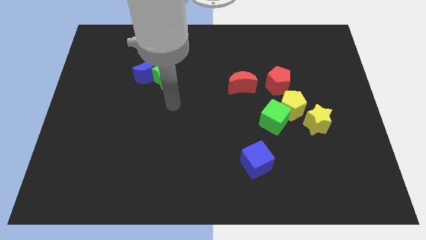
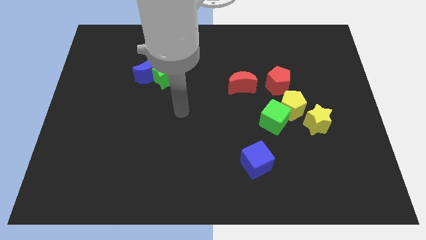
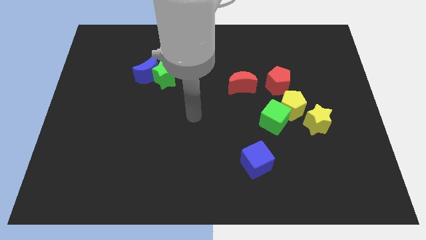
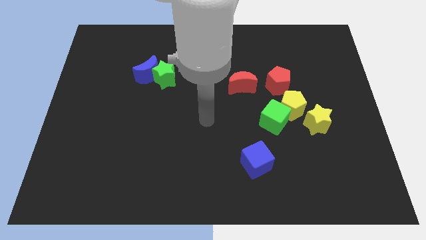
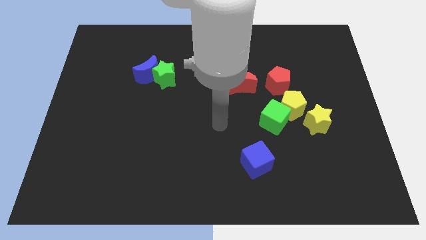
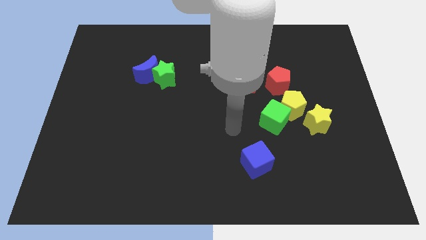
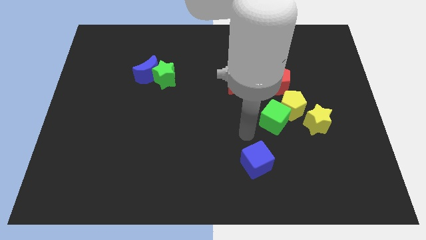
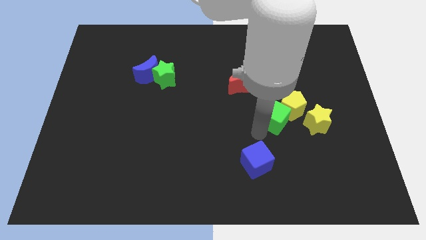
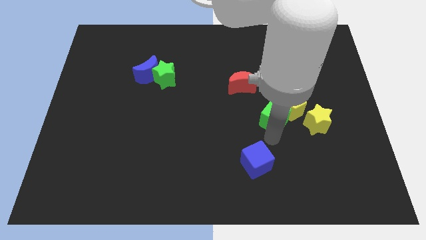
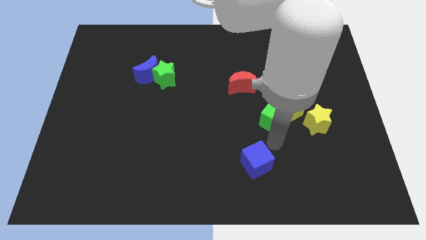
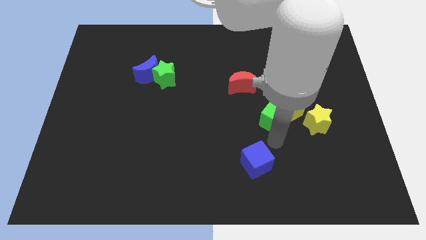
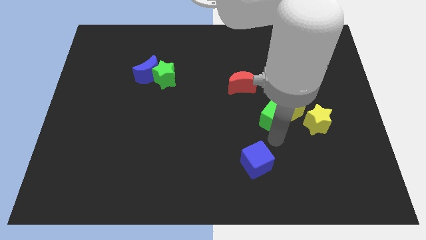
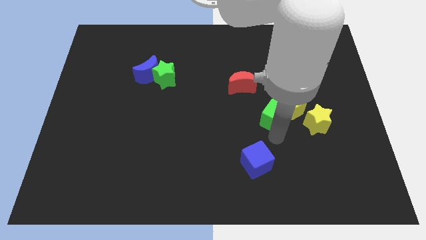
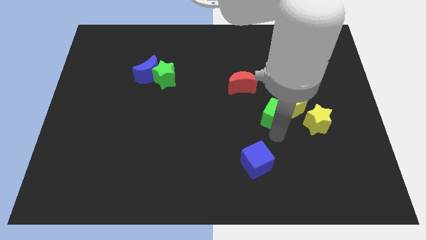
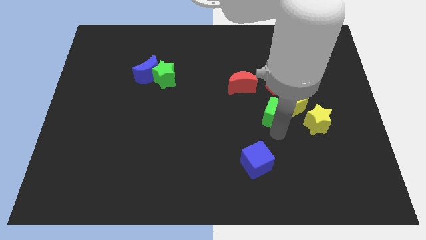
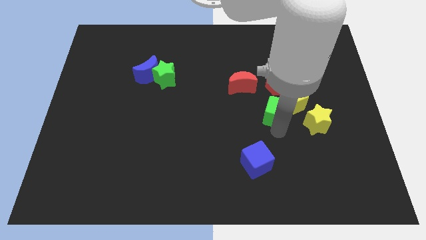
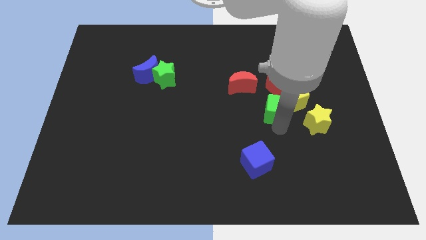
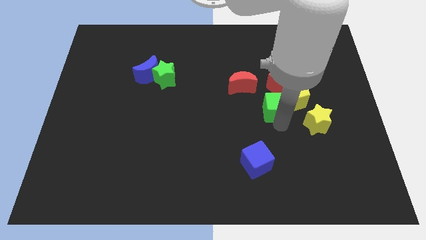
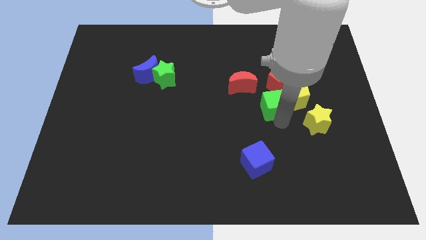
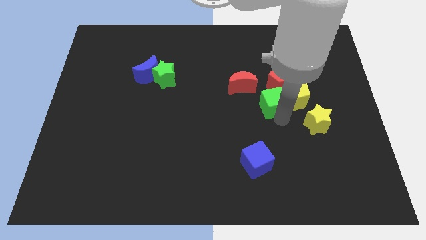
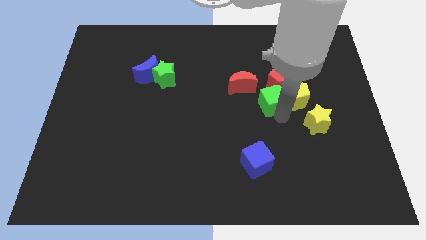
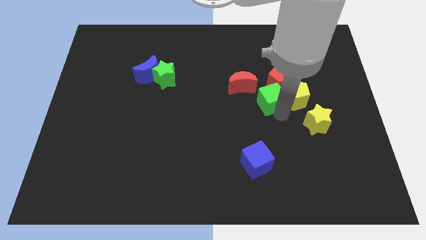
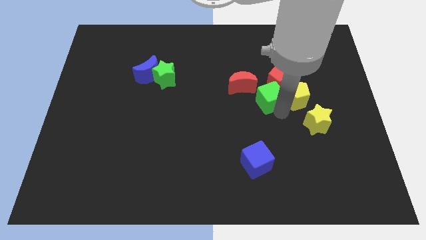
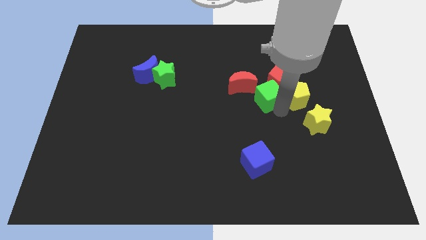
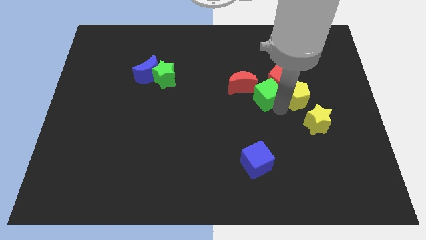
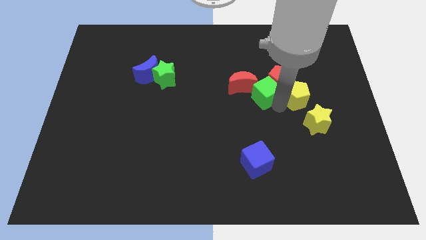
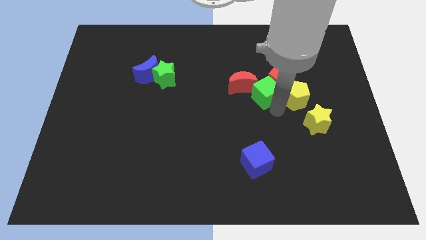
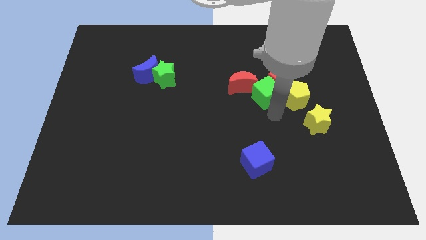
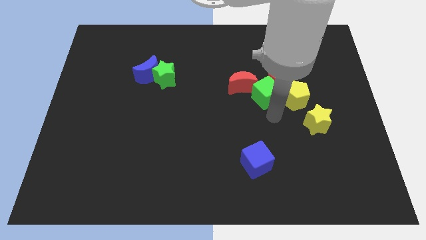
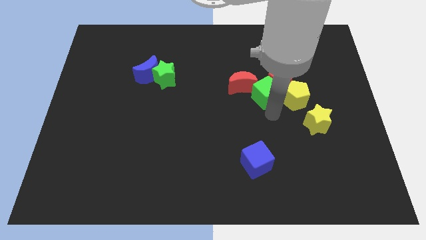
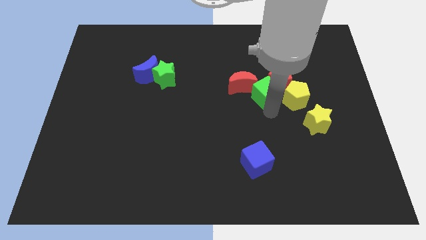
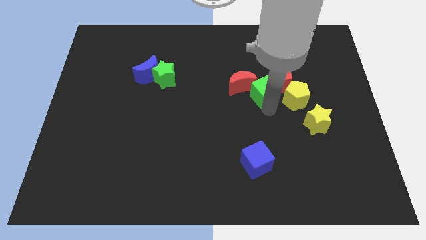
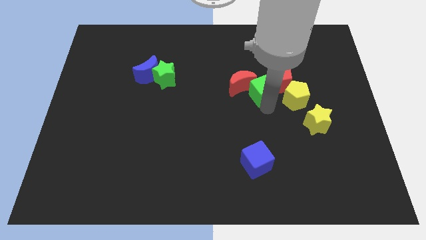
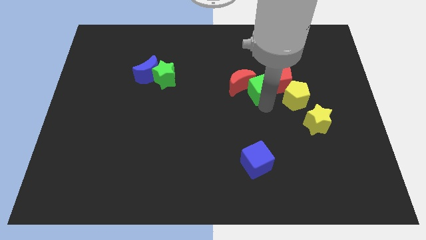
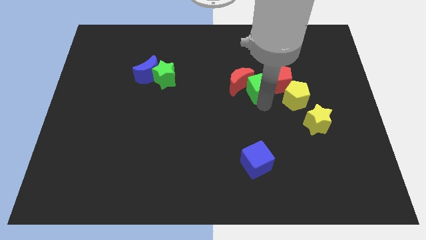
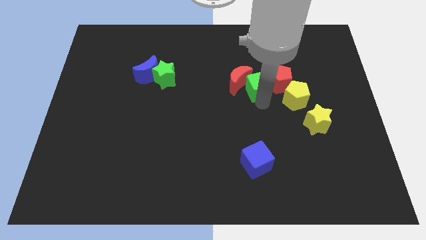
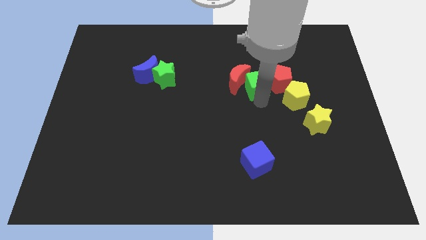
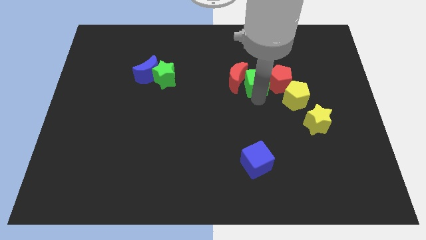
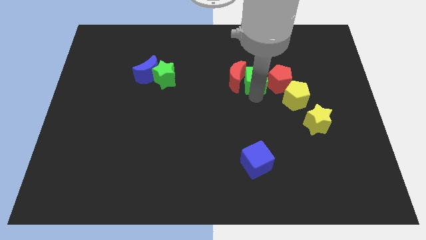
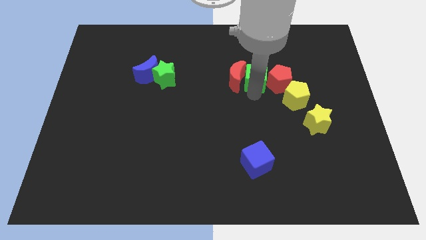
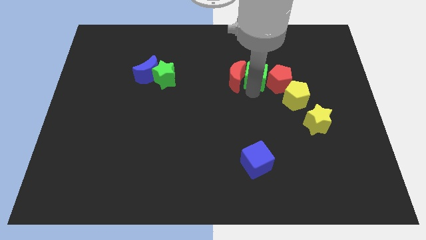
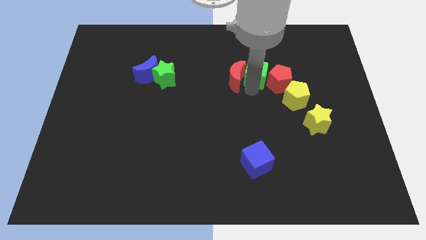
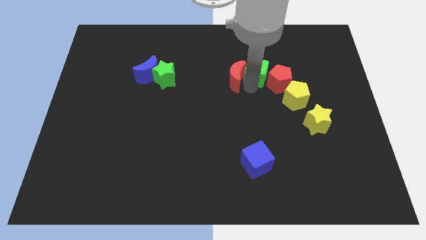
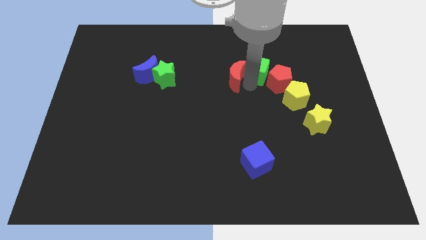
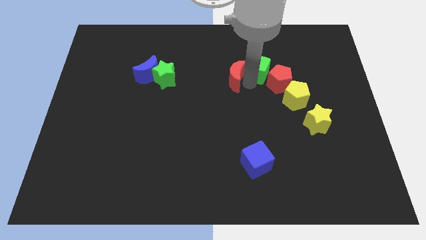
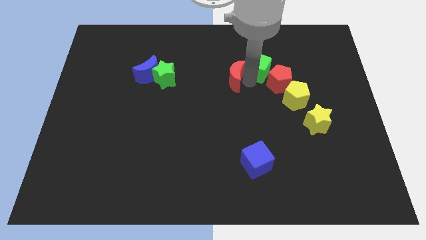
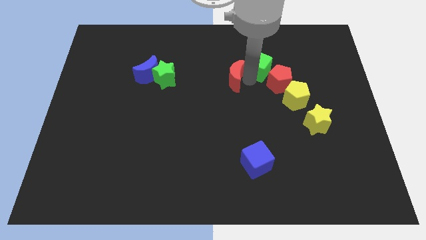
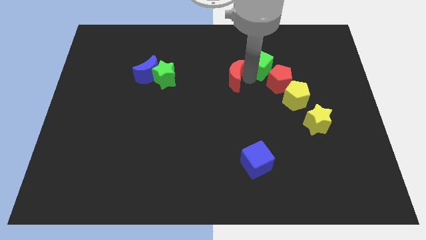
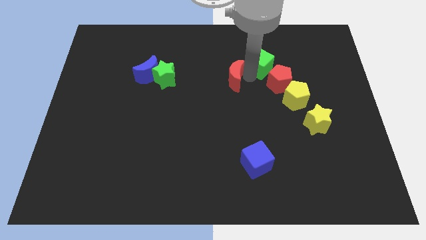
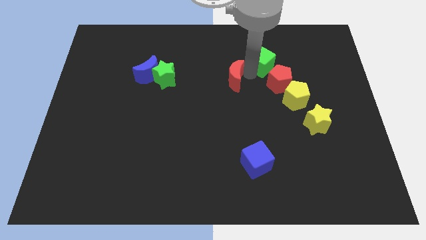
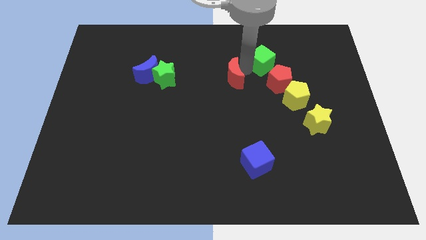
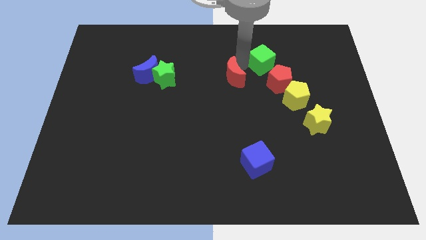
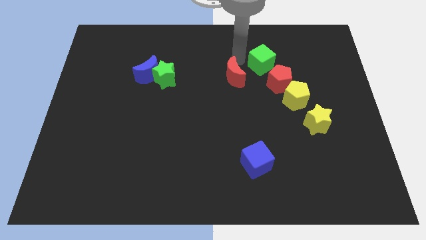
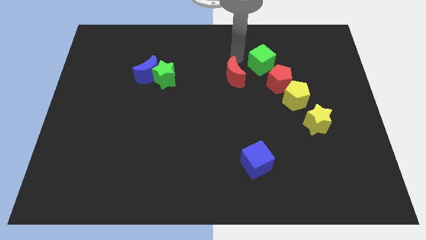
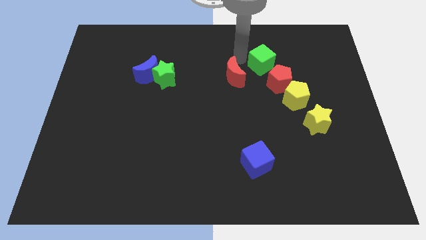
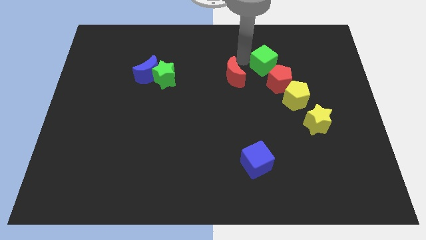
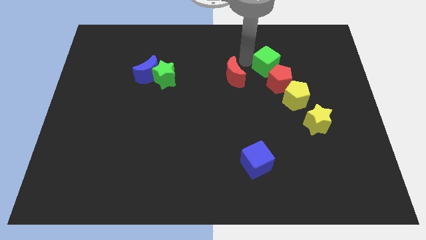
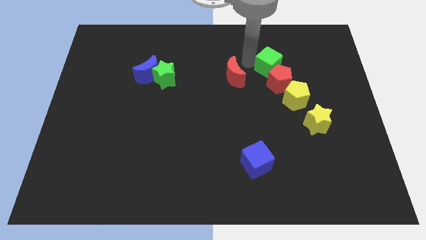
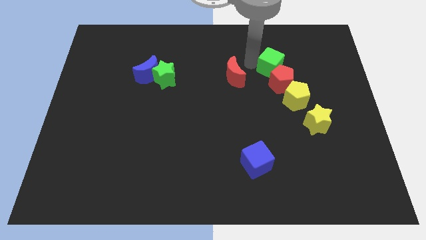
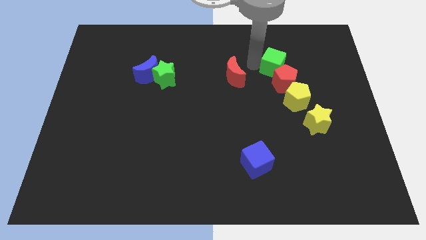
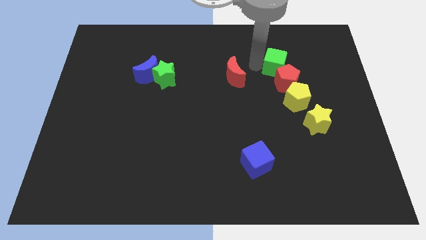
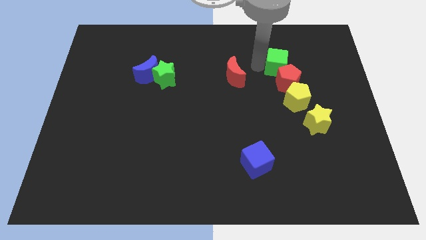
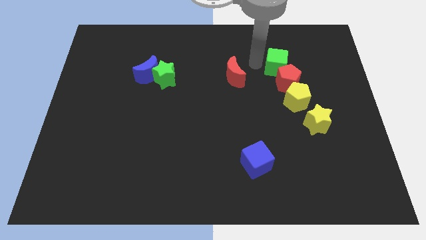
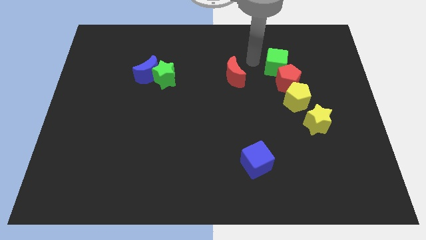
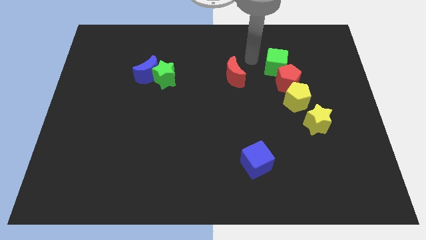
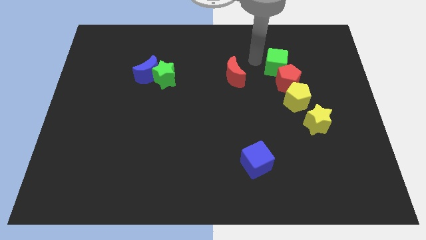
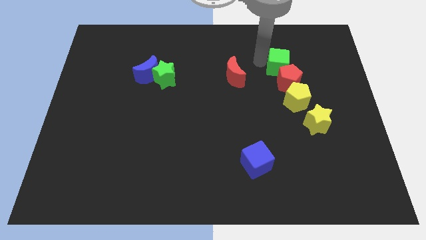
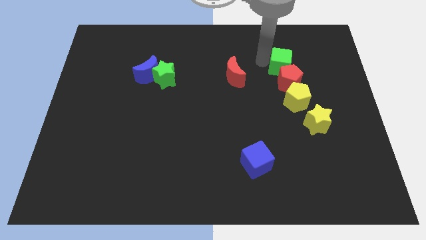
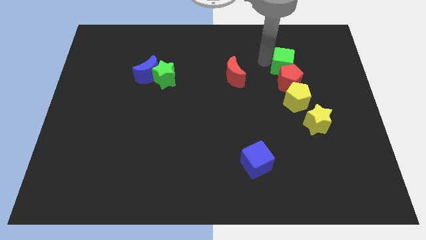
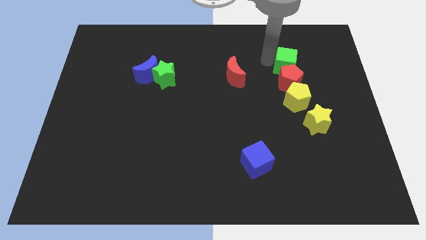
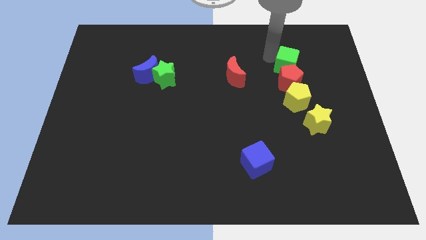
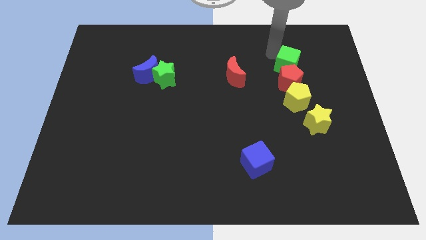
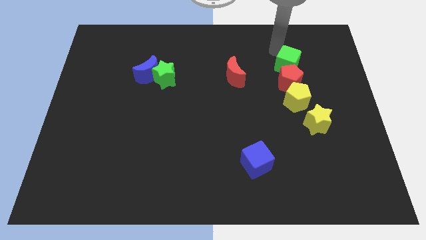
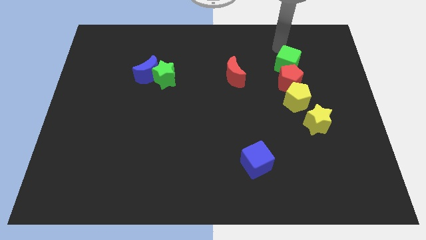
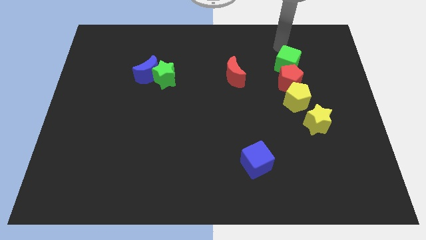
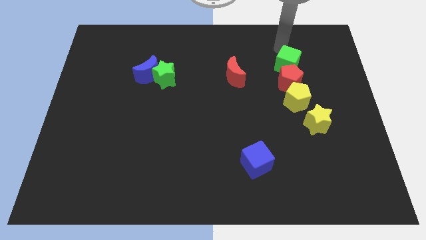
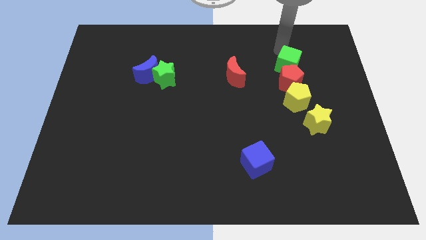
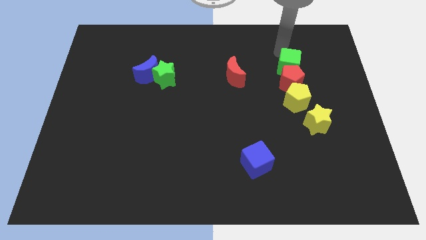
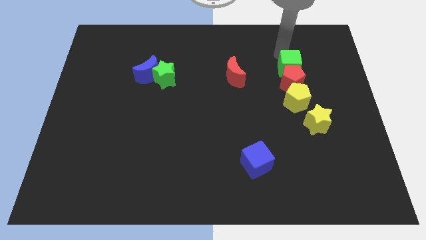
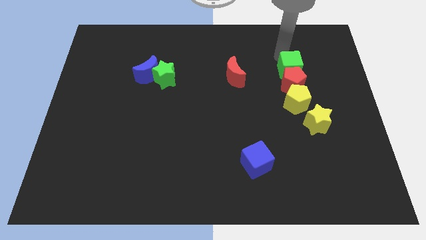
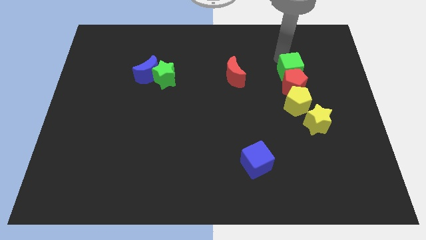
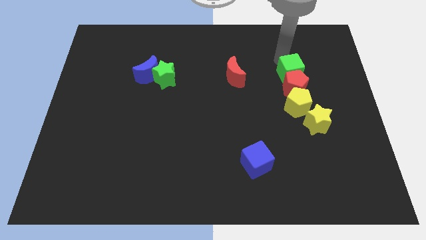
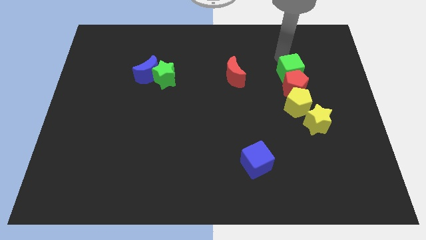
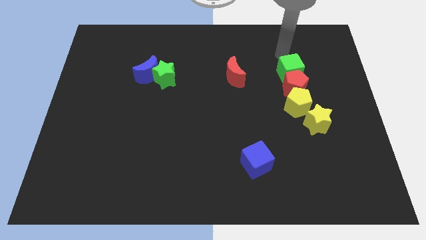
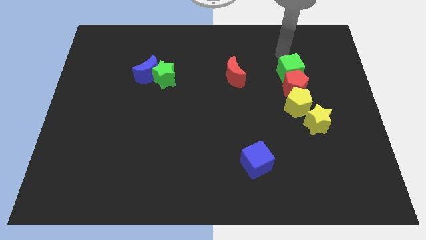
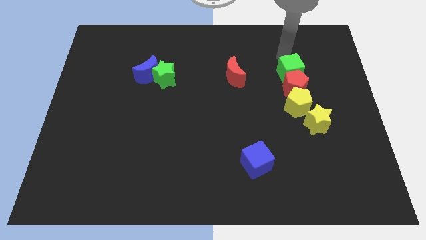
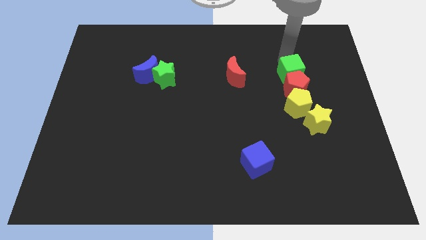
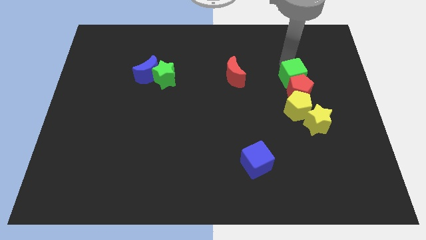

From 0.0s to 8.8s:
slide the green cube to the top side of the yellow star
